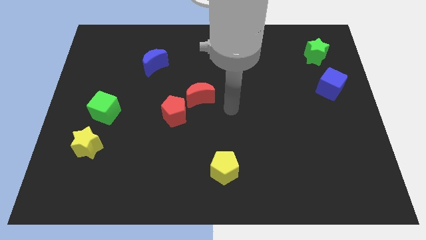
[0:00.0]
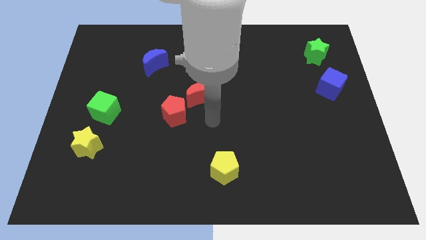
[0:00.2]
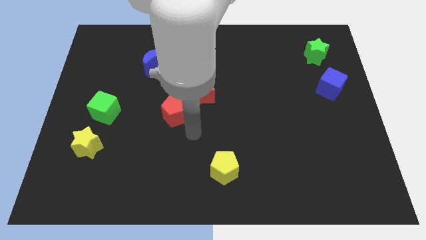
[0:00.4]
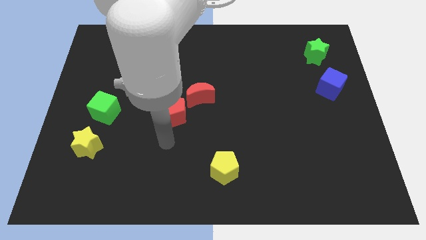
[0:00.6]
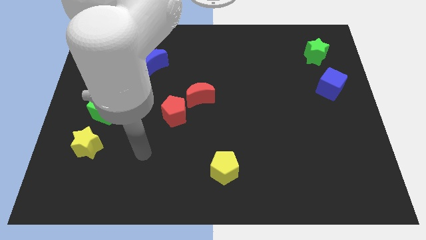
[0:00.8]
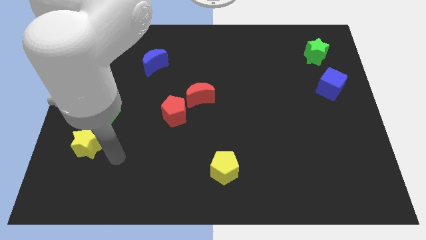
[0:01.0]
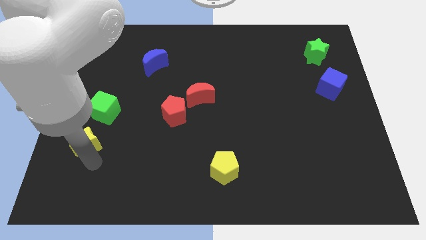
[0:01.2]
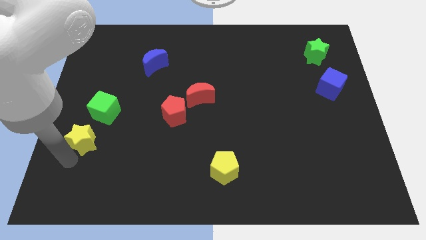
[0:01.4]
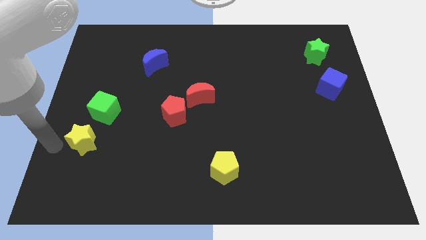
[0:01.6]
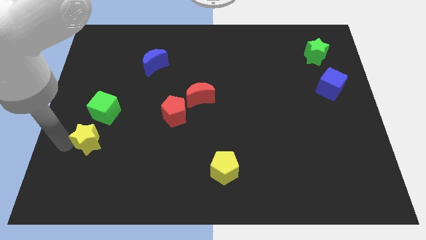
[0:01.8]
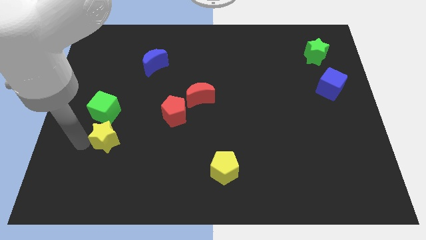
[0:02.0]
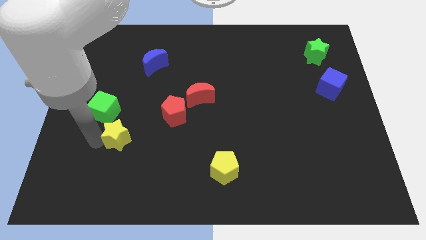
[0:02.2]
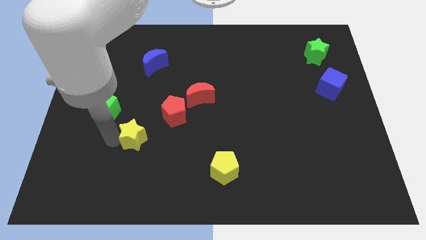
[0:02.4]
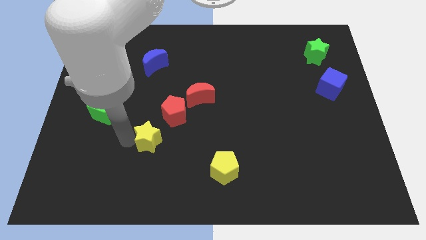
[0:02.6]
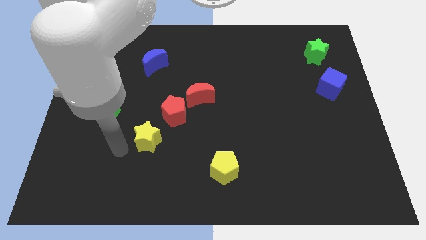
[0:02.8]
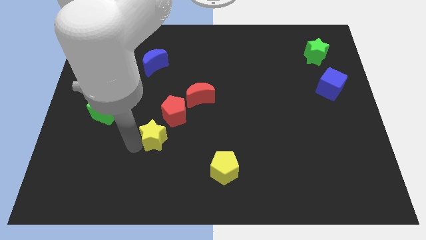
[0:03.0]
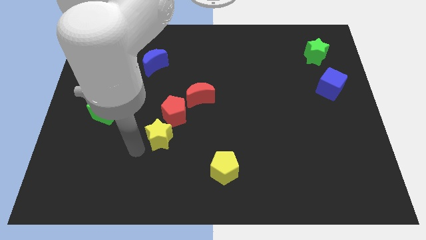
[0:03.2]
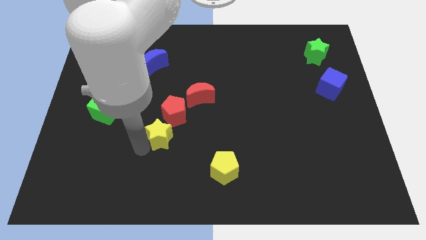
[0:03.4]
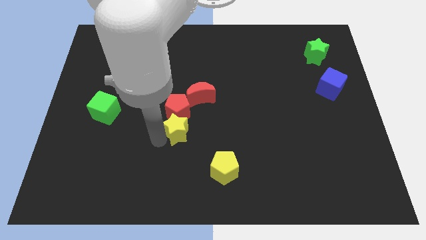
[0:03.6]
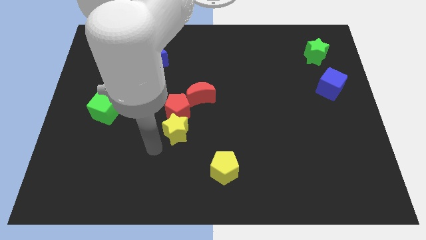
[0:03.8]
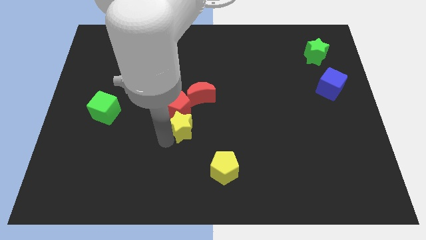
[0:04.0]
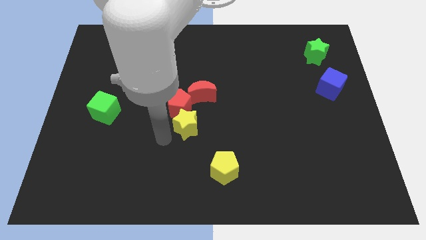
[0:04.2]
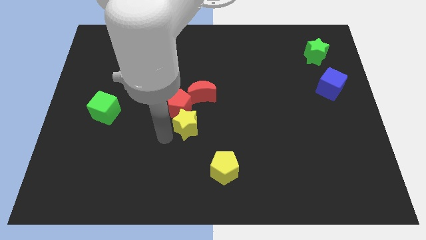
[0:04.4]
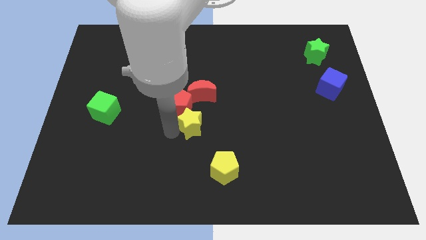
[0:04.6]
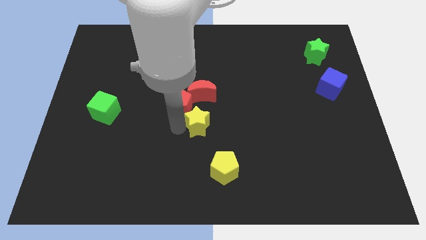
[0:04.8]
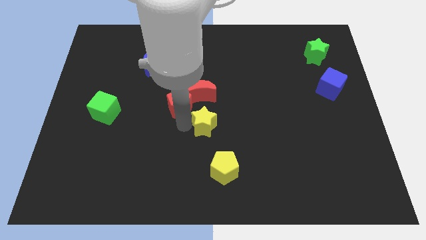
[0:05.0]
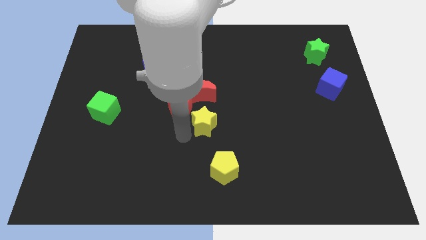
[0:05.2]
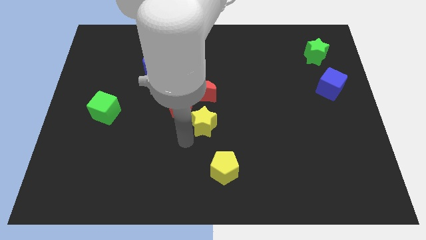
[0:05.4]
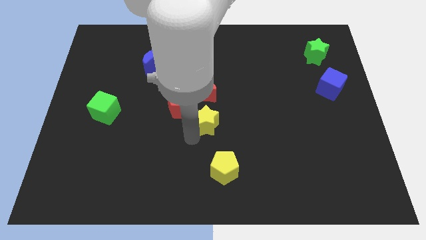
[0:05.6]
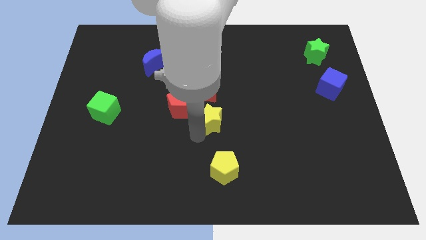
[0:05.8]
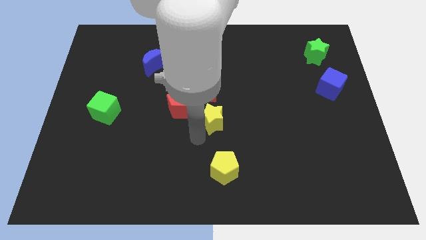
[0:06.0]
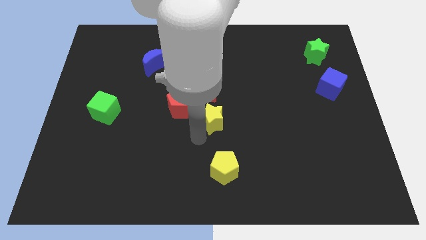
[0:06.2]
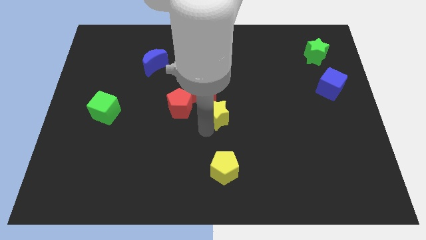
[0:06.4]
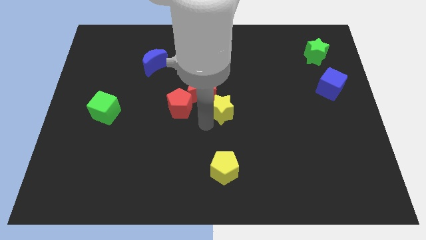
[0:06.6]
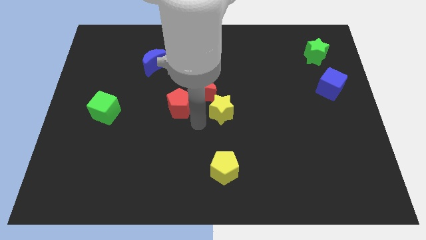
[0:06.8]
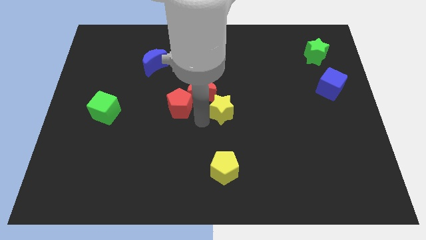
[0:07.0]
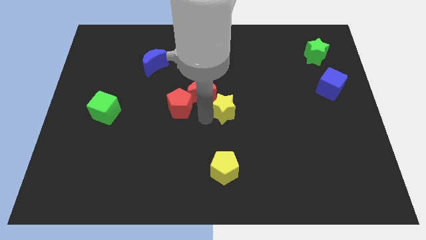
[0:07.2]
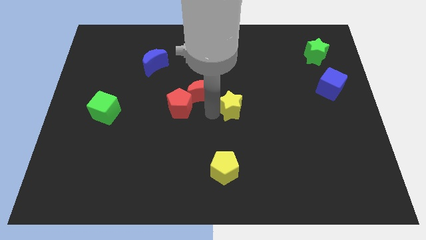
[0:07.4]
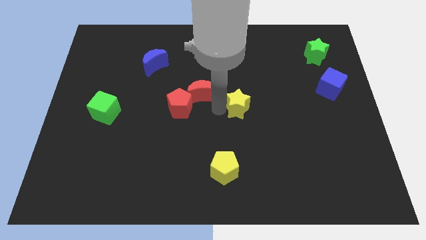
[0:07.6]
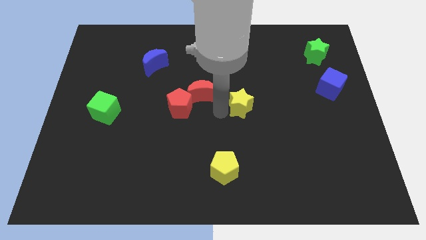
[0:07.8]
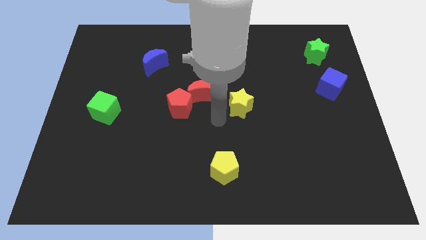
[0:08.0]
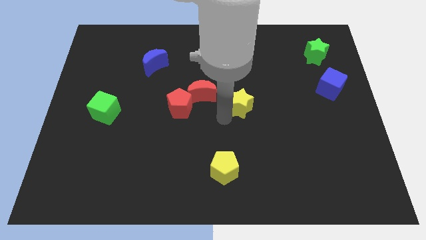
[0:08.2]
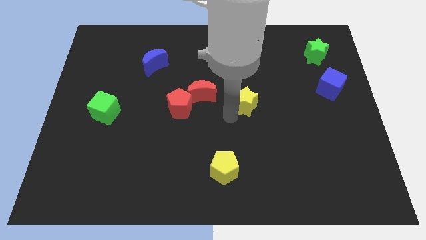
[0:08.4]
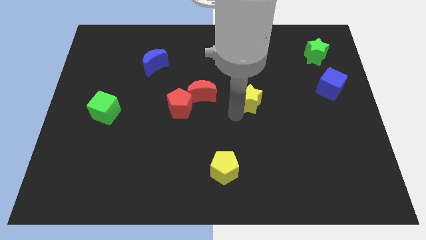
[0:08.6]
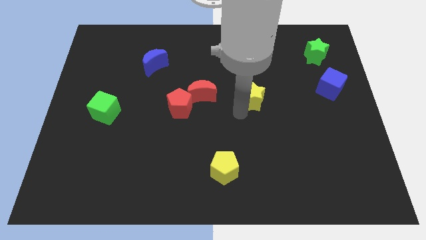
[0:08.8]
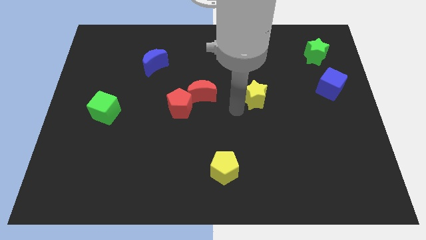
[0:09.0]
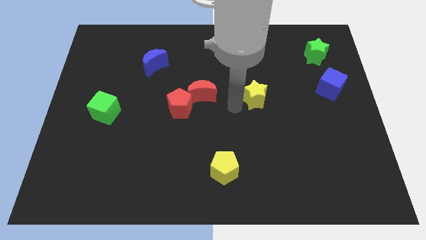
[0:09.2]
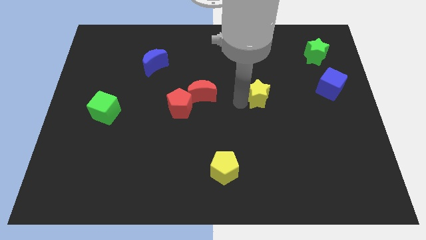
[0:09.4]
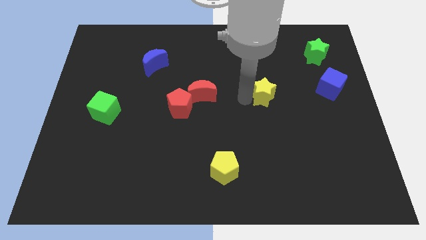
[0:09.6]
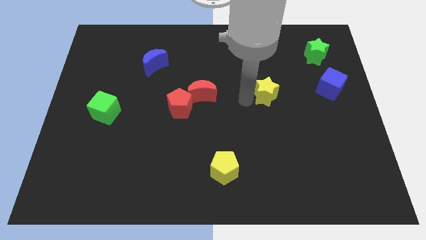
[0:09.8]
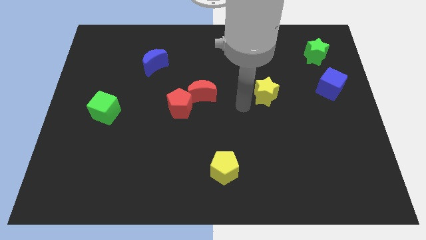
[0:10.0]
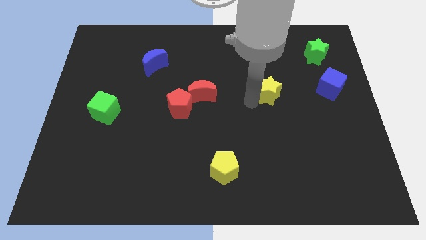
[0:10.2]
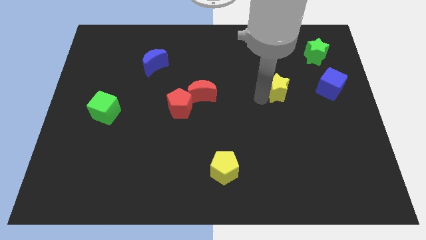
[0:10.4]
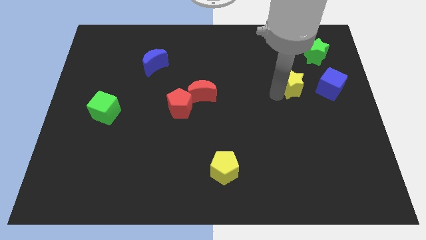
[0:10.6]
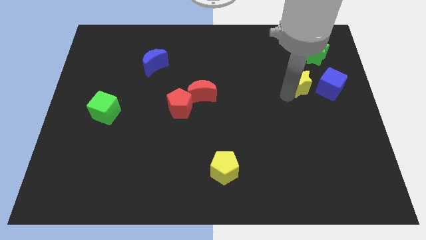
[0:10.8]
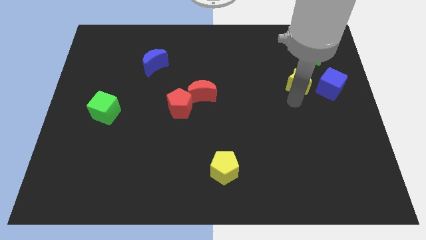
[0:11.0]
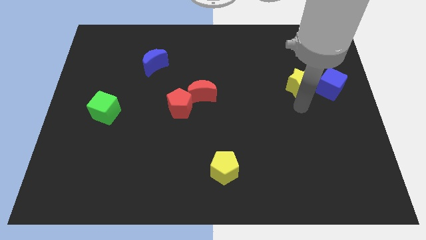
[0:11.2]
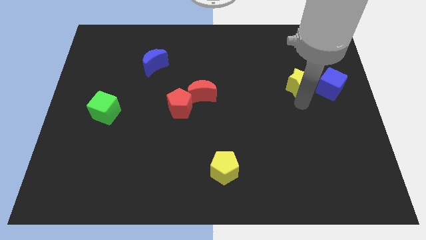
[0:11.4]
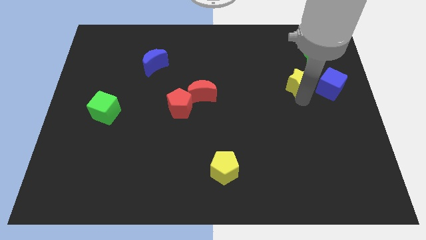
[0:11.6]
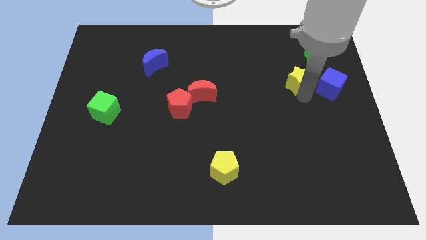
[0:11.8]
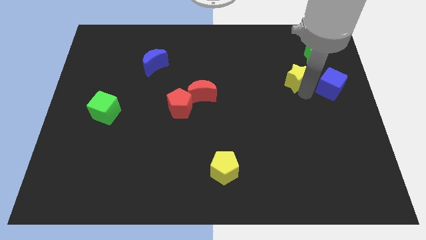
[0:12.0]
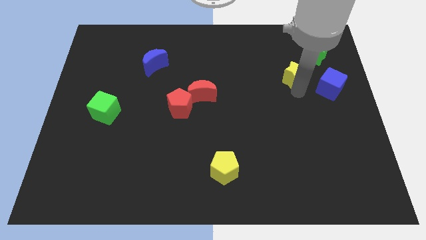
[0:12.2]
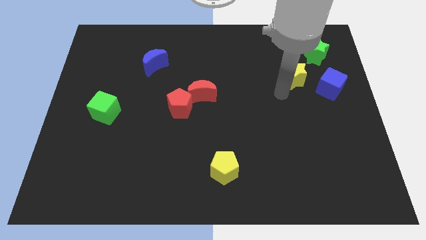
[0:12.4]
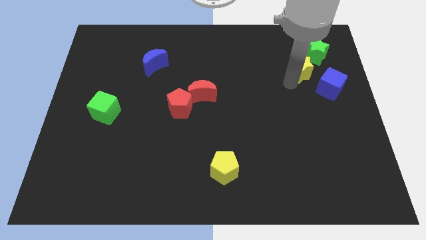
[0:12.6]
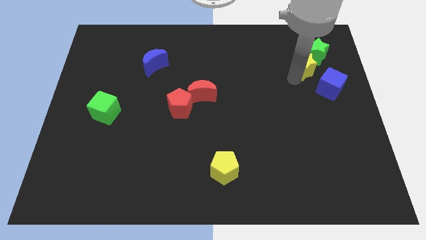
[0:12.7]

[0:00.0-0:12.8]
move the yellow star next to the green star
